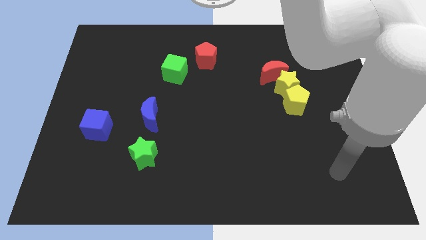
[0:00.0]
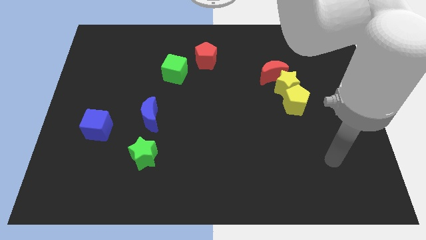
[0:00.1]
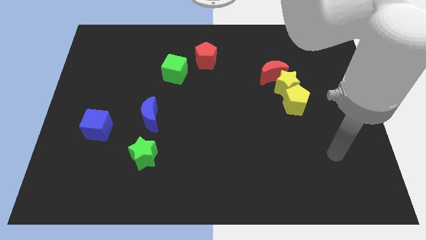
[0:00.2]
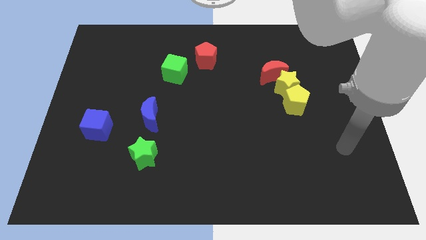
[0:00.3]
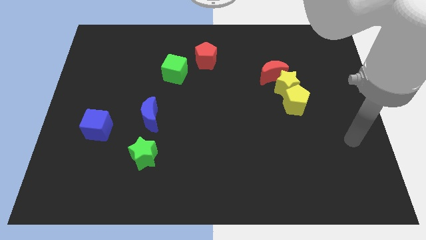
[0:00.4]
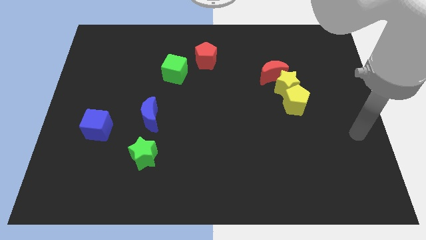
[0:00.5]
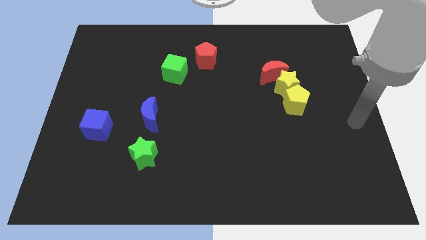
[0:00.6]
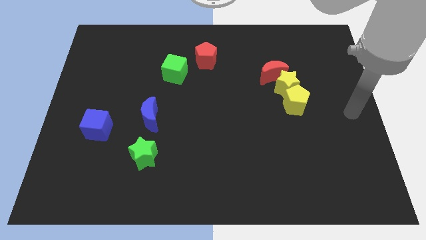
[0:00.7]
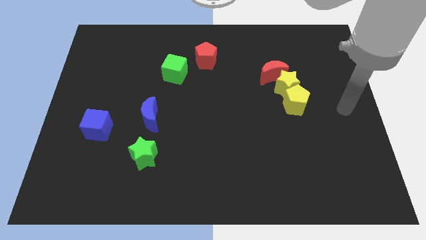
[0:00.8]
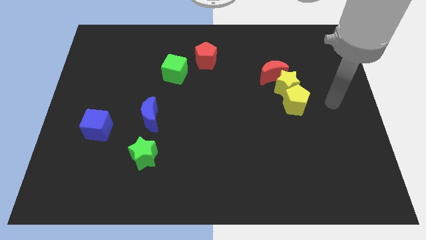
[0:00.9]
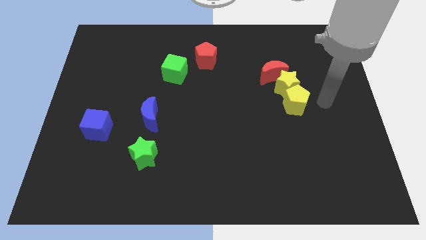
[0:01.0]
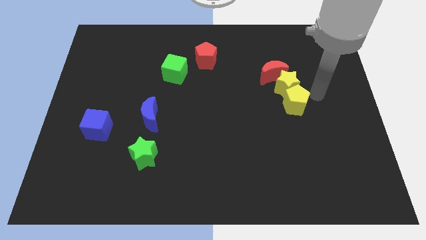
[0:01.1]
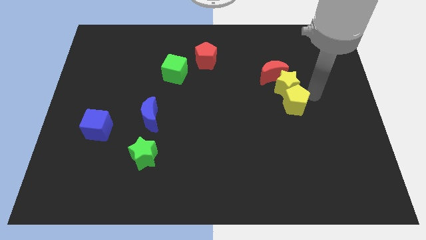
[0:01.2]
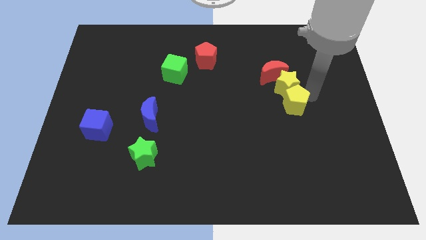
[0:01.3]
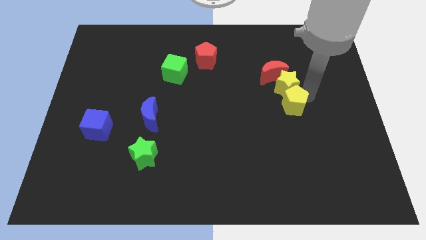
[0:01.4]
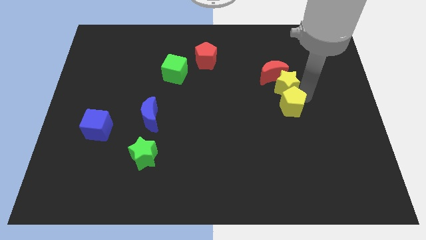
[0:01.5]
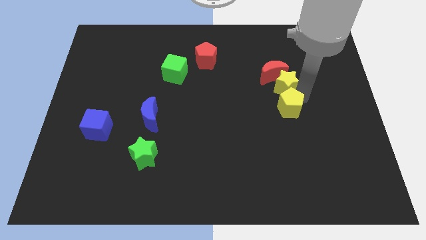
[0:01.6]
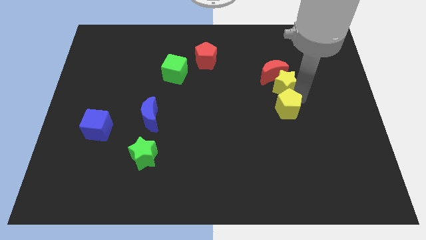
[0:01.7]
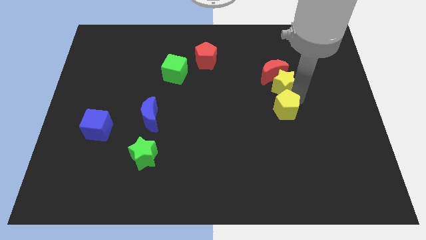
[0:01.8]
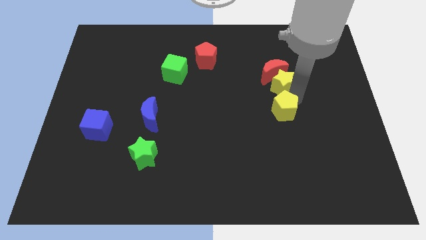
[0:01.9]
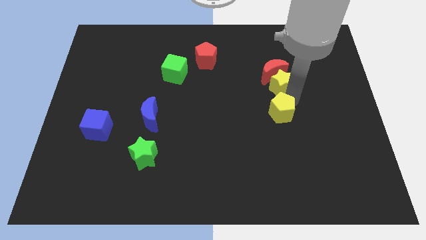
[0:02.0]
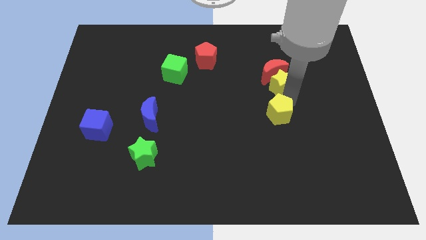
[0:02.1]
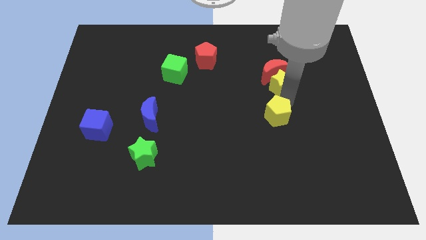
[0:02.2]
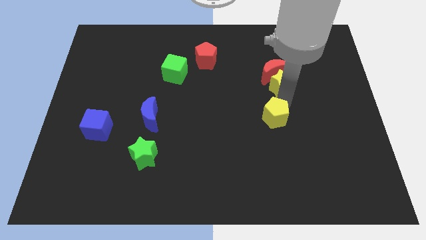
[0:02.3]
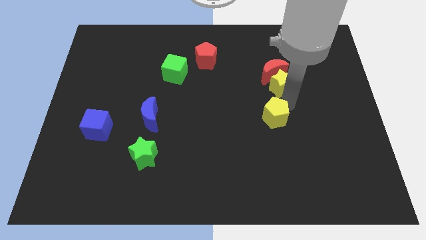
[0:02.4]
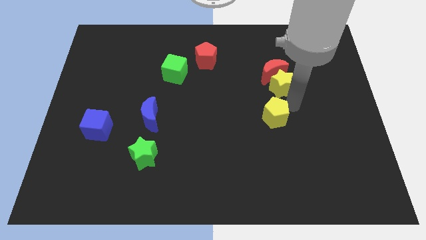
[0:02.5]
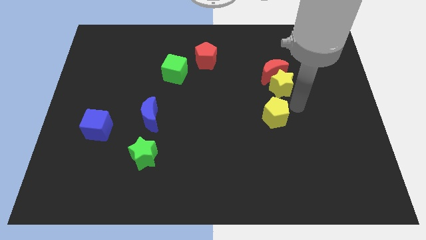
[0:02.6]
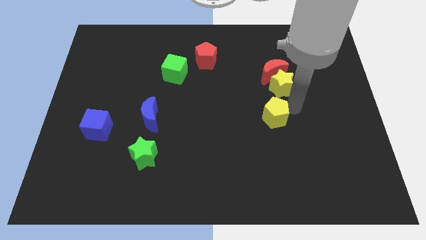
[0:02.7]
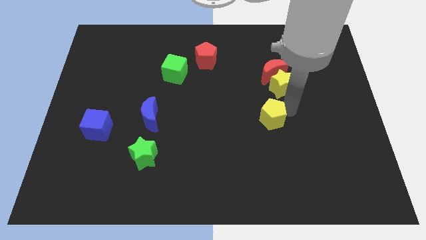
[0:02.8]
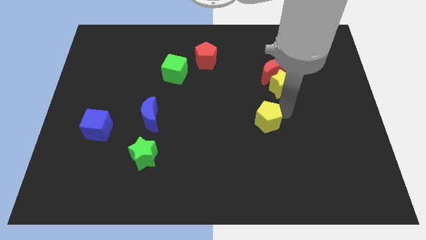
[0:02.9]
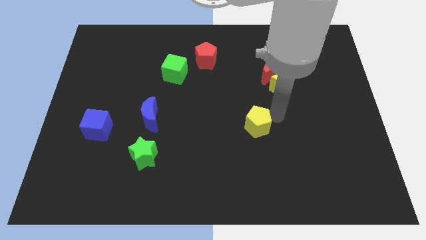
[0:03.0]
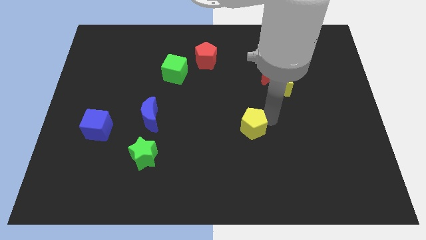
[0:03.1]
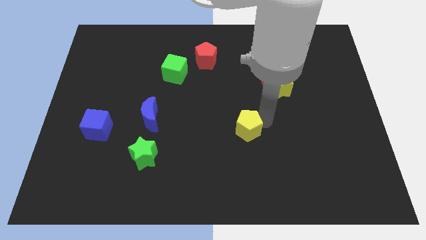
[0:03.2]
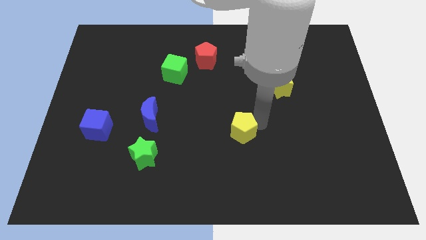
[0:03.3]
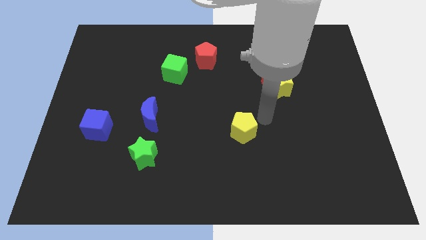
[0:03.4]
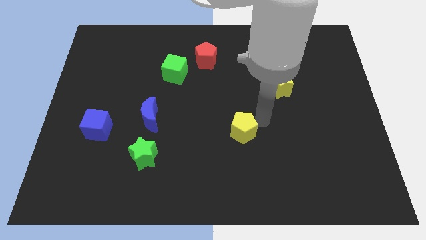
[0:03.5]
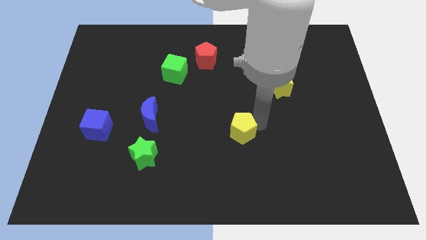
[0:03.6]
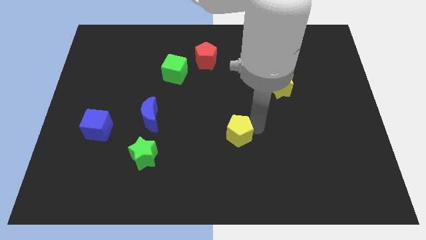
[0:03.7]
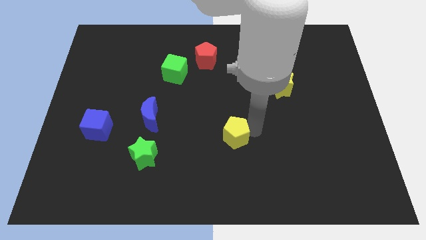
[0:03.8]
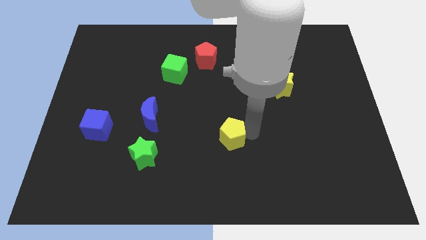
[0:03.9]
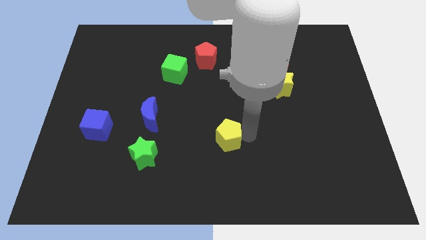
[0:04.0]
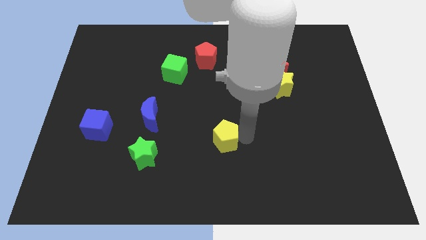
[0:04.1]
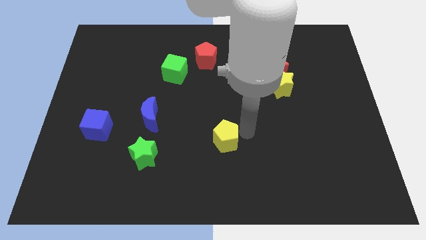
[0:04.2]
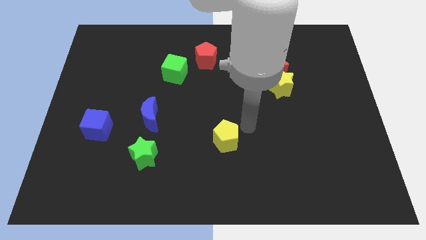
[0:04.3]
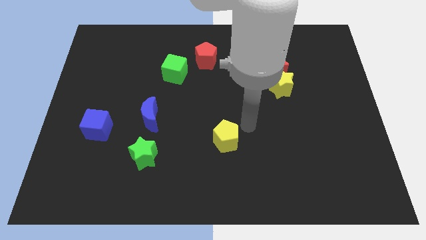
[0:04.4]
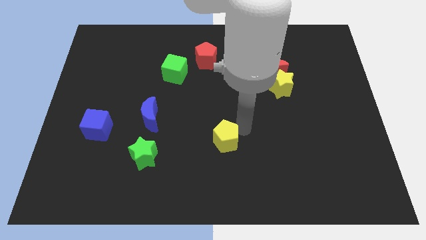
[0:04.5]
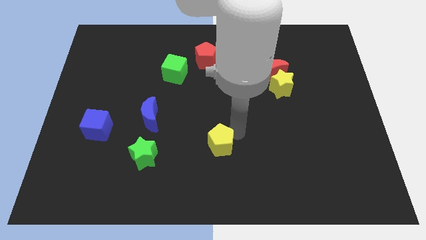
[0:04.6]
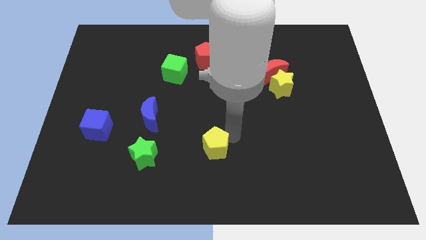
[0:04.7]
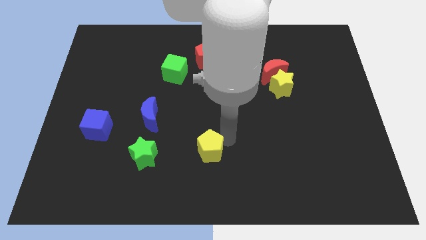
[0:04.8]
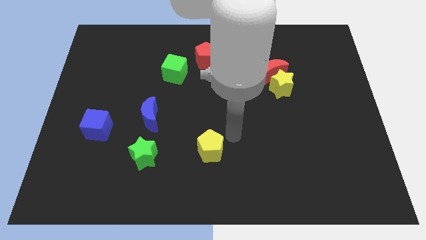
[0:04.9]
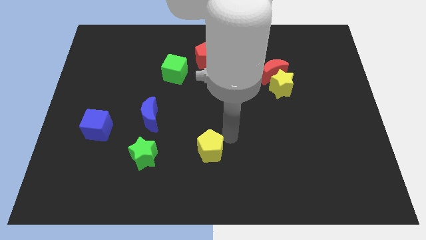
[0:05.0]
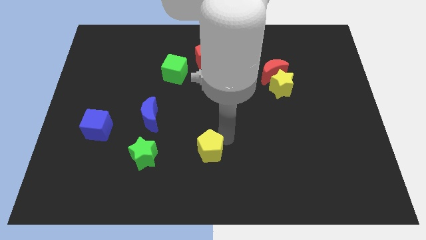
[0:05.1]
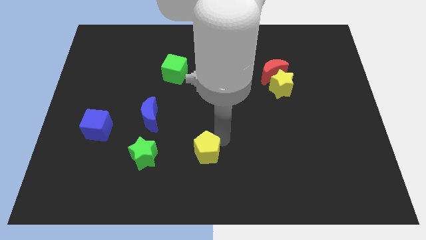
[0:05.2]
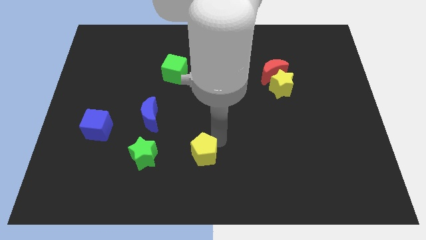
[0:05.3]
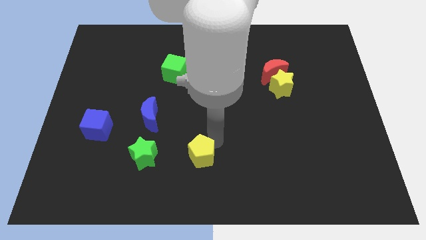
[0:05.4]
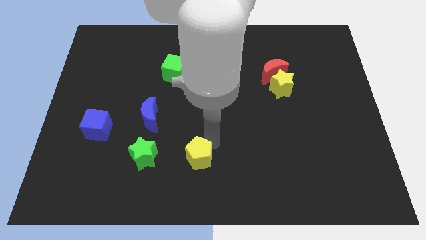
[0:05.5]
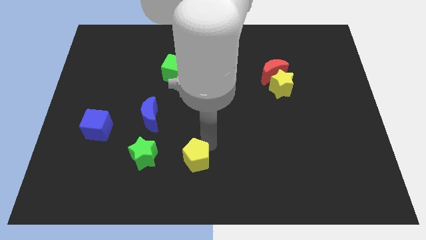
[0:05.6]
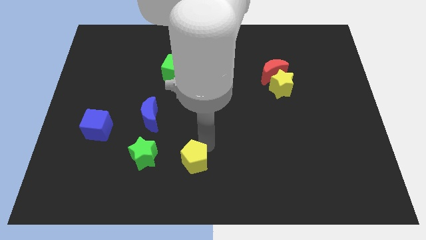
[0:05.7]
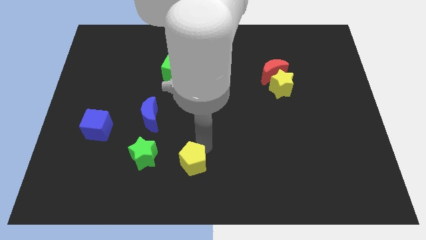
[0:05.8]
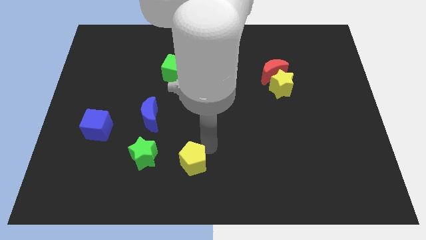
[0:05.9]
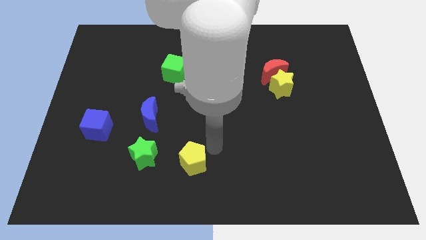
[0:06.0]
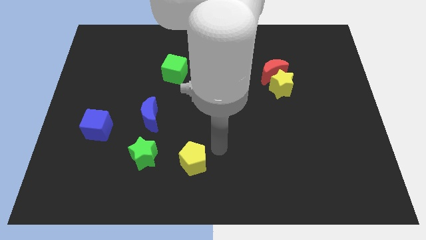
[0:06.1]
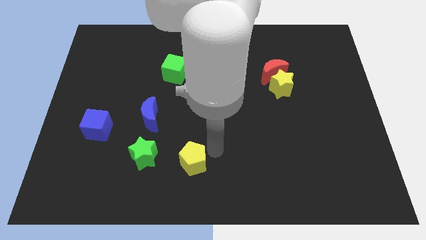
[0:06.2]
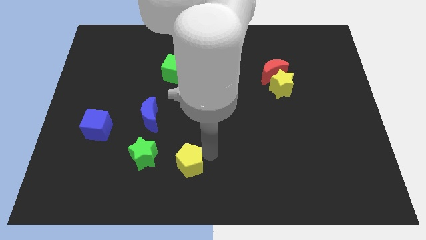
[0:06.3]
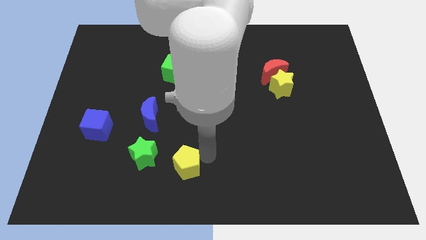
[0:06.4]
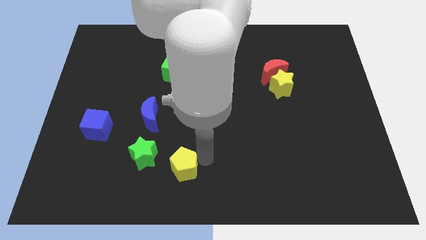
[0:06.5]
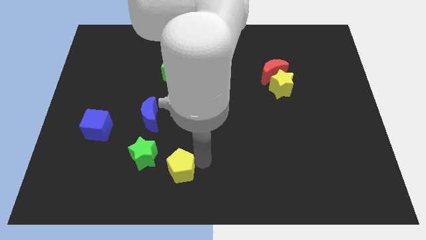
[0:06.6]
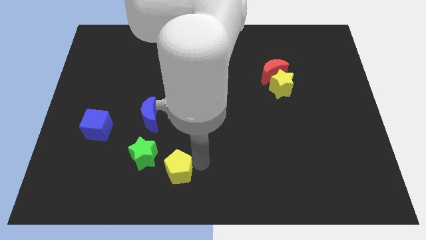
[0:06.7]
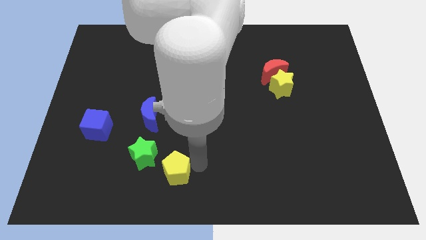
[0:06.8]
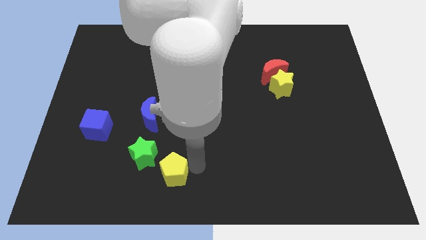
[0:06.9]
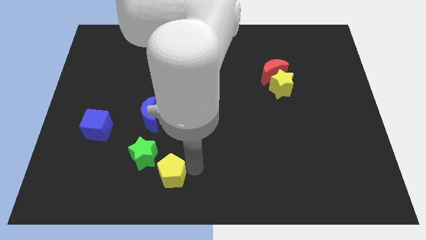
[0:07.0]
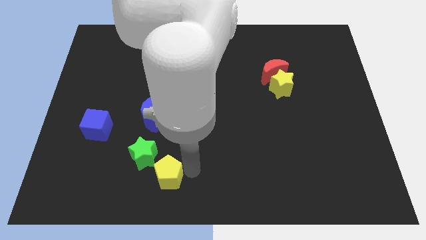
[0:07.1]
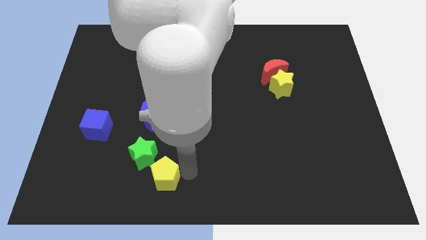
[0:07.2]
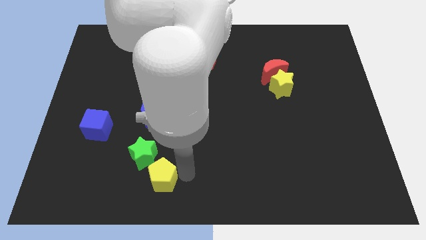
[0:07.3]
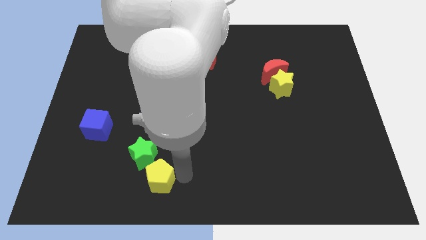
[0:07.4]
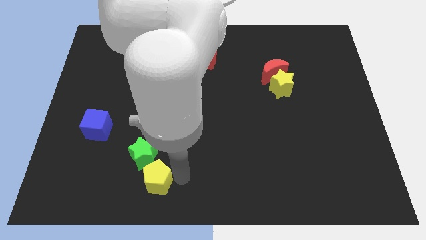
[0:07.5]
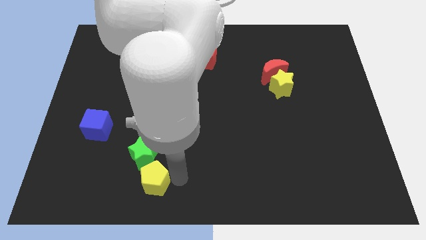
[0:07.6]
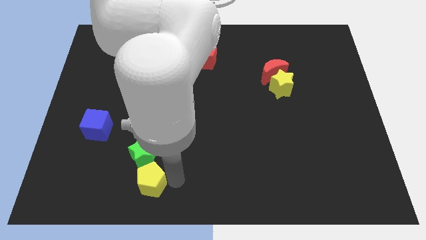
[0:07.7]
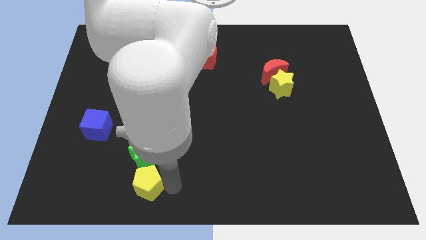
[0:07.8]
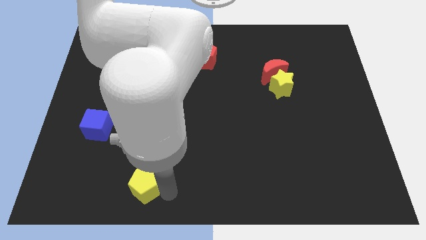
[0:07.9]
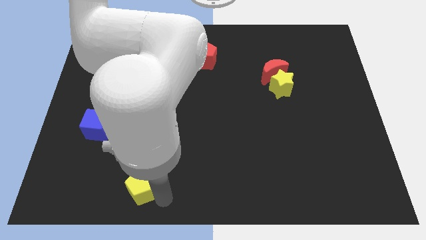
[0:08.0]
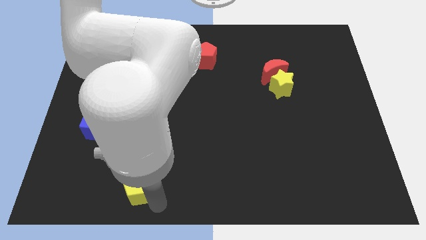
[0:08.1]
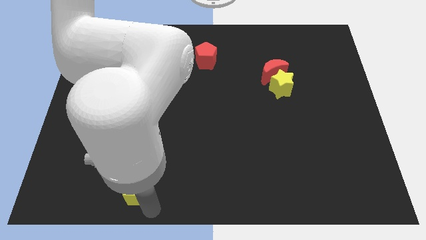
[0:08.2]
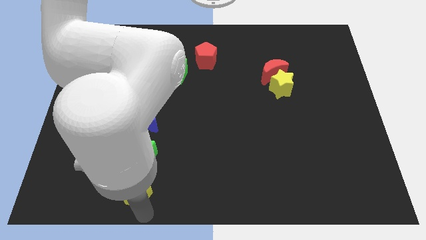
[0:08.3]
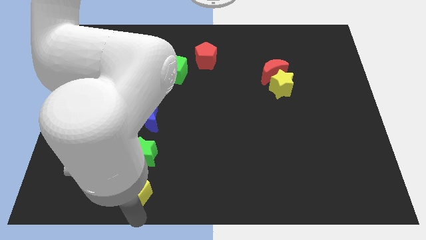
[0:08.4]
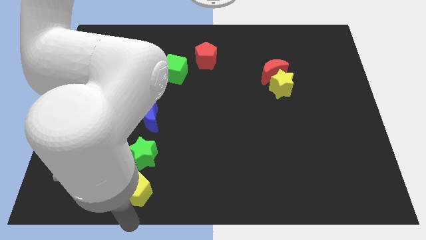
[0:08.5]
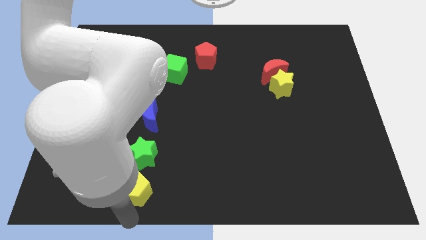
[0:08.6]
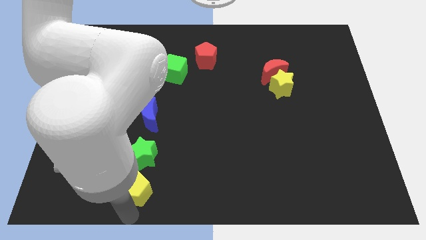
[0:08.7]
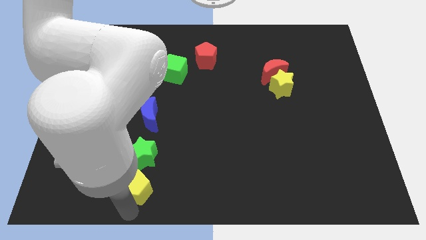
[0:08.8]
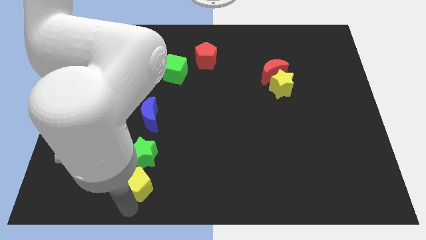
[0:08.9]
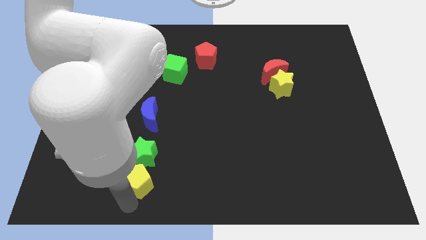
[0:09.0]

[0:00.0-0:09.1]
slide the yellow pentagon to the bottom of the blue moon
